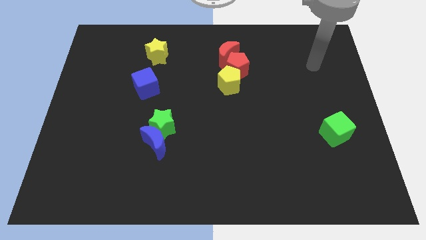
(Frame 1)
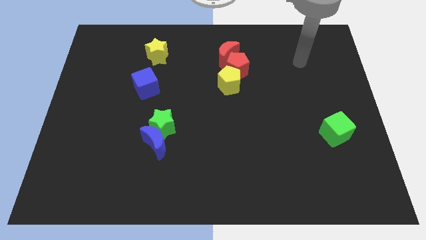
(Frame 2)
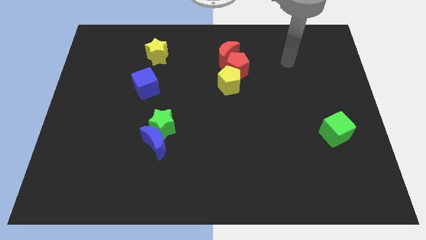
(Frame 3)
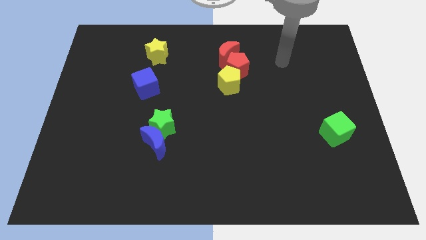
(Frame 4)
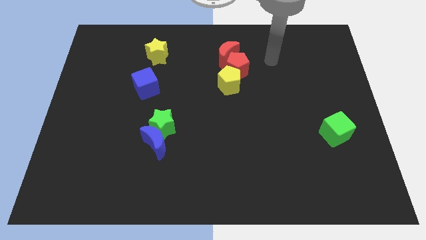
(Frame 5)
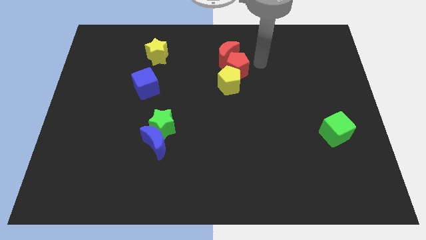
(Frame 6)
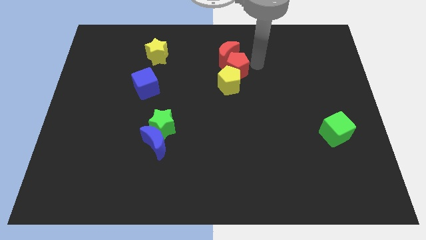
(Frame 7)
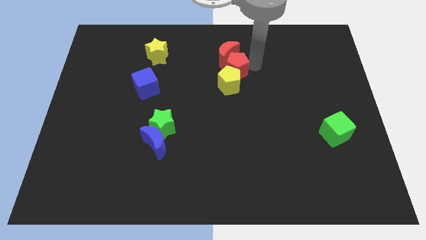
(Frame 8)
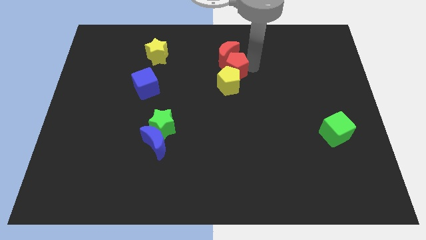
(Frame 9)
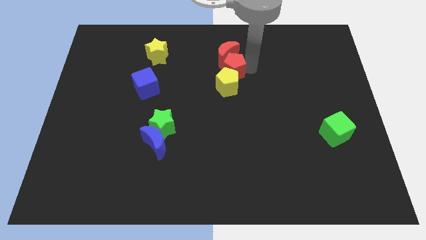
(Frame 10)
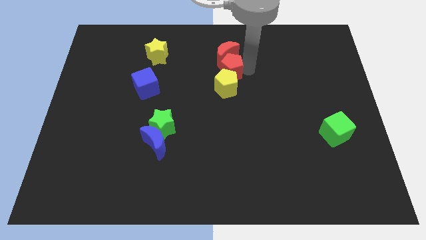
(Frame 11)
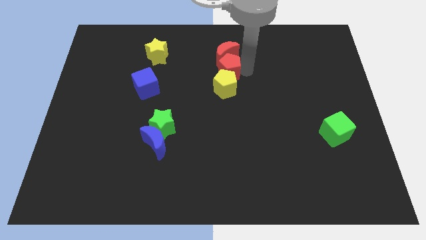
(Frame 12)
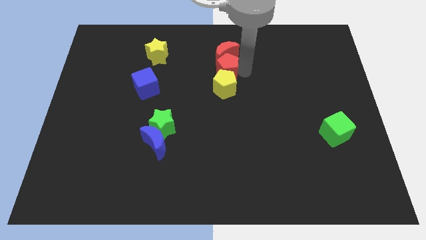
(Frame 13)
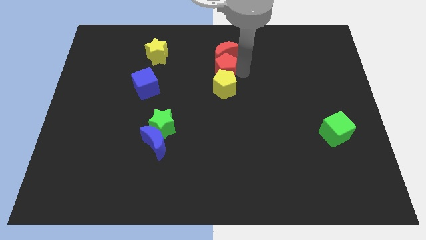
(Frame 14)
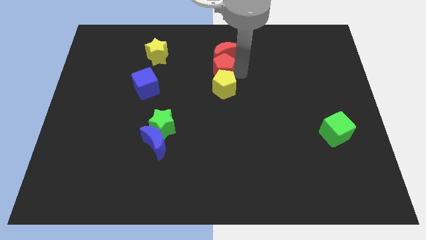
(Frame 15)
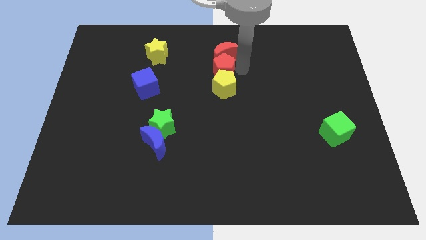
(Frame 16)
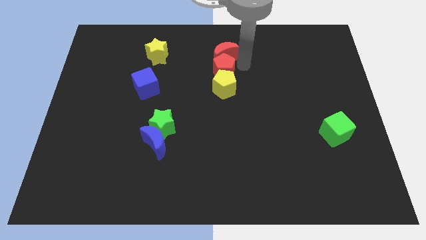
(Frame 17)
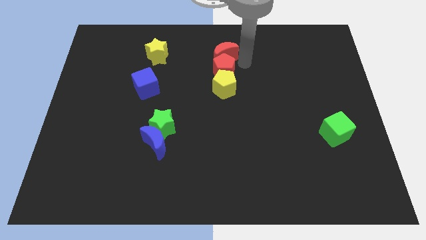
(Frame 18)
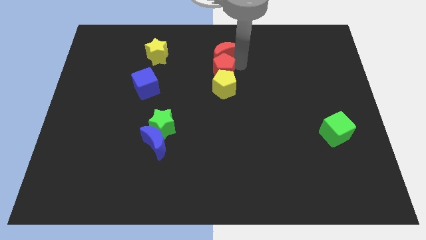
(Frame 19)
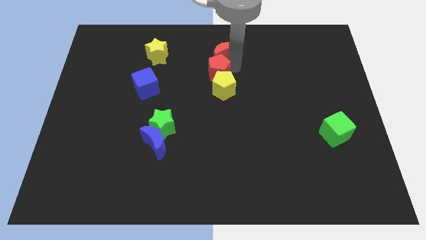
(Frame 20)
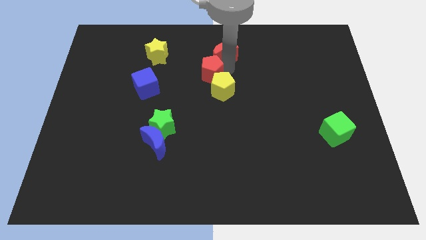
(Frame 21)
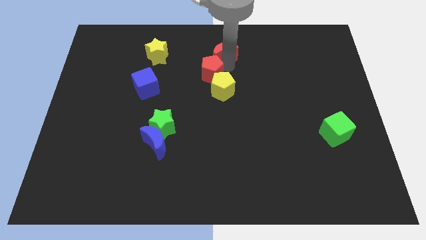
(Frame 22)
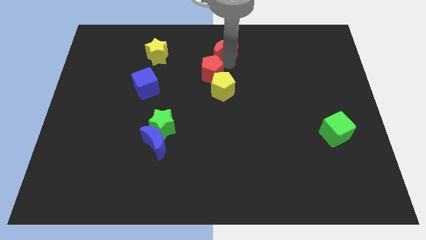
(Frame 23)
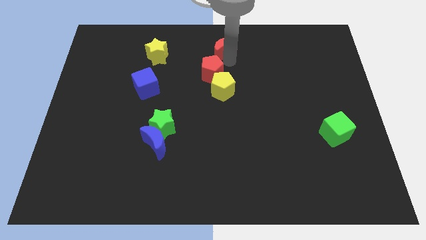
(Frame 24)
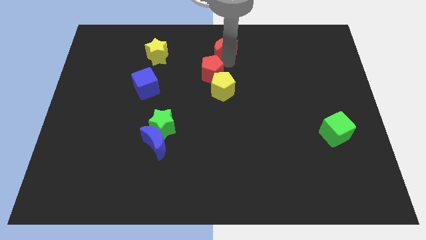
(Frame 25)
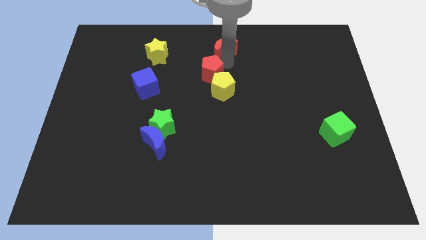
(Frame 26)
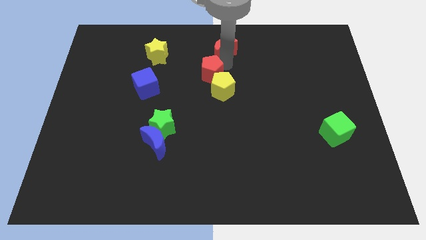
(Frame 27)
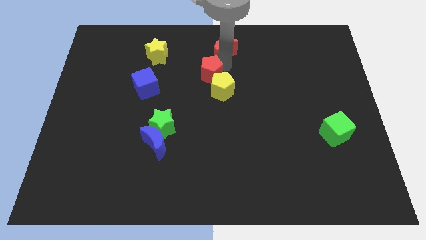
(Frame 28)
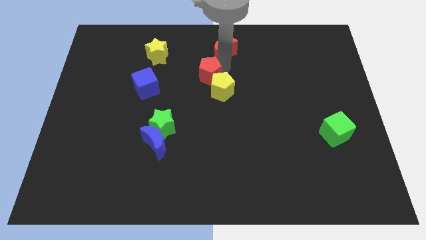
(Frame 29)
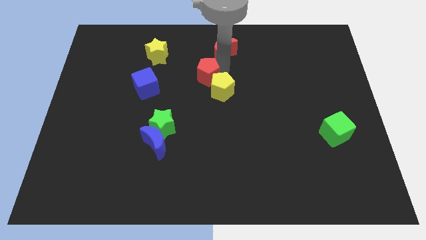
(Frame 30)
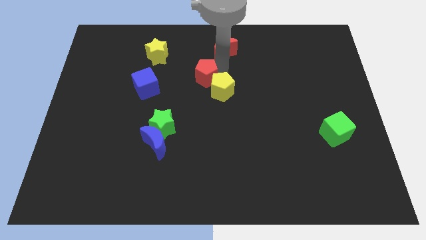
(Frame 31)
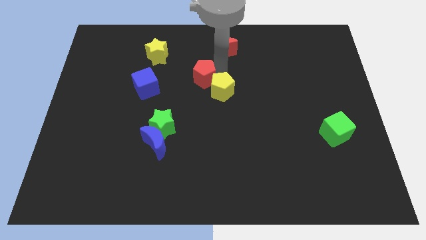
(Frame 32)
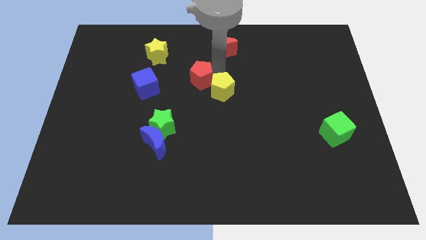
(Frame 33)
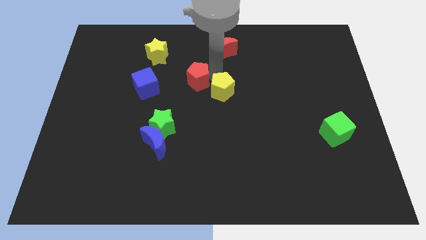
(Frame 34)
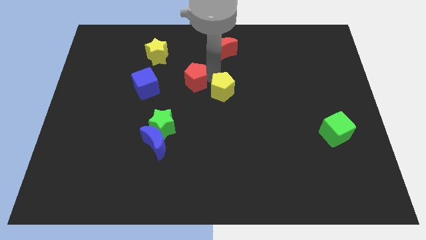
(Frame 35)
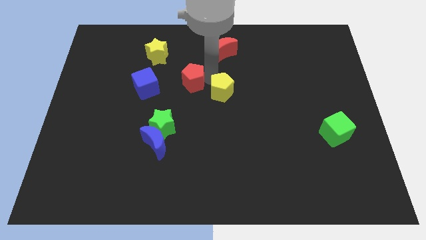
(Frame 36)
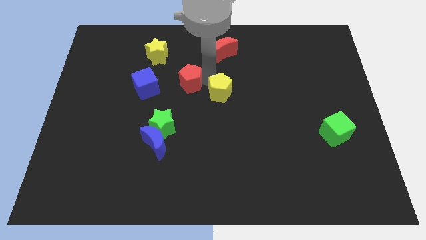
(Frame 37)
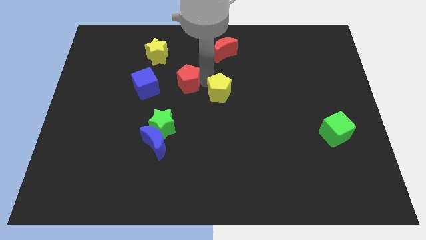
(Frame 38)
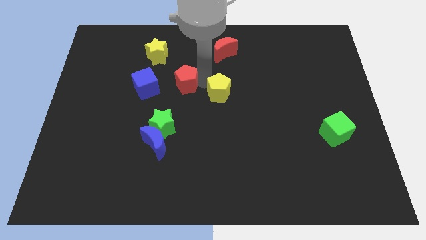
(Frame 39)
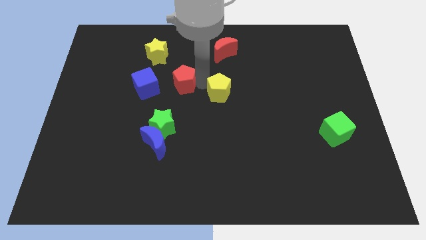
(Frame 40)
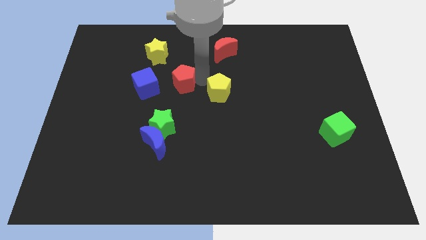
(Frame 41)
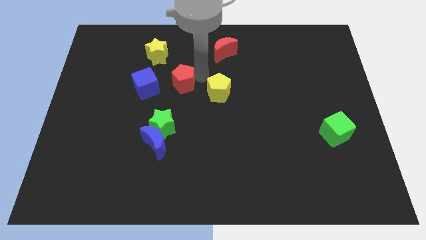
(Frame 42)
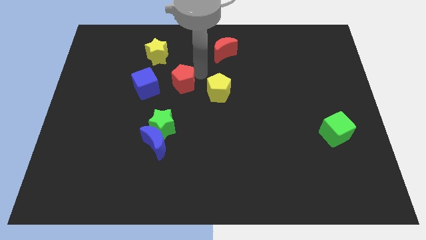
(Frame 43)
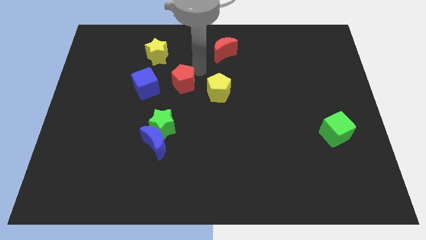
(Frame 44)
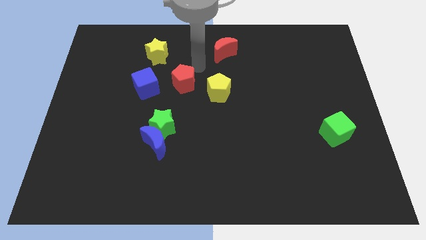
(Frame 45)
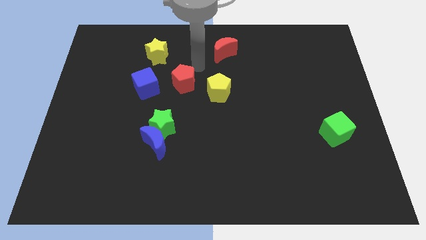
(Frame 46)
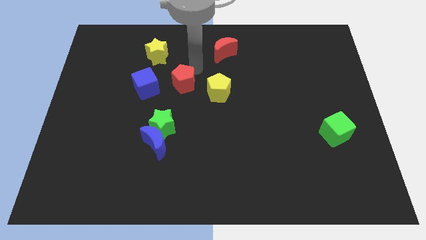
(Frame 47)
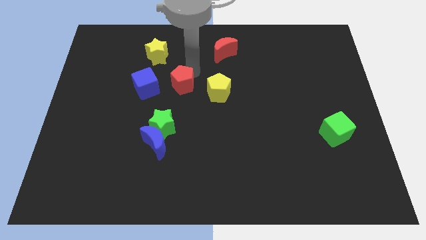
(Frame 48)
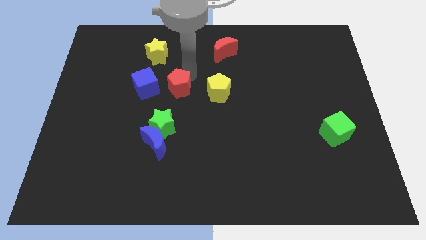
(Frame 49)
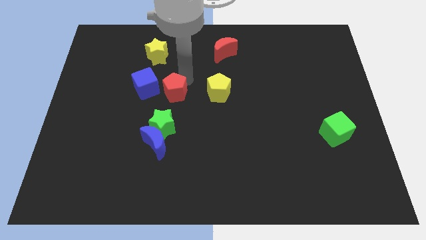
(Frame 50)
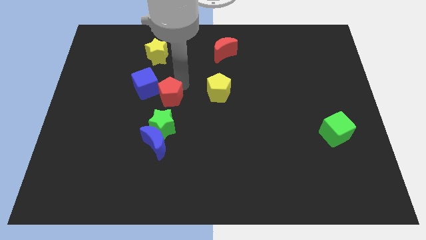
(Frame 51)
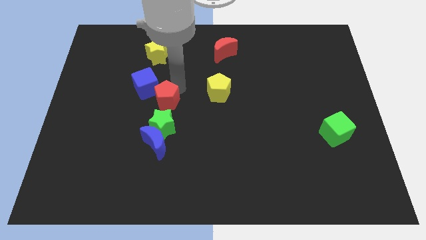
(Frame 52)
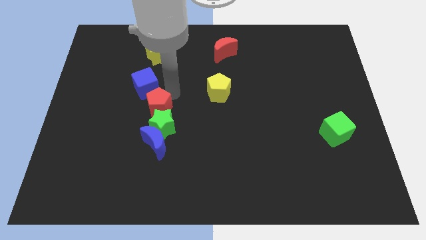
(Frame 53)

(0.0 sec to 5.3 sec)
put the red pentagon below the blue cube

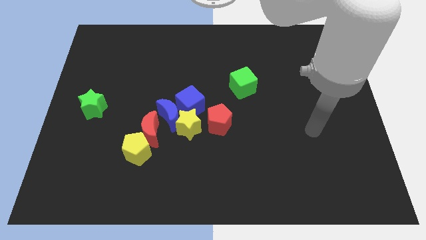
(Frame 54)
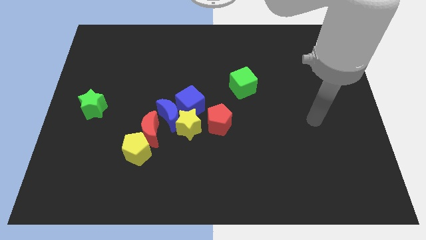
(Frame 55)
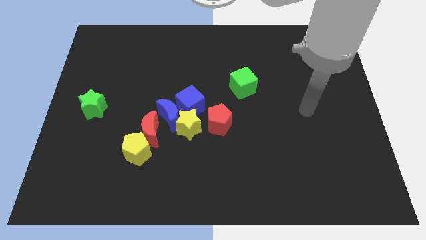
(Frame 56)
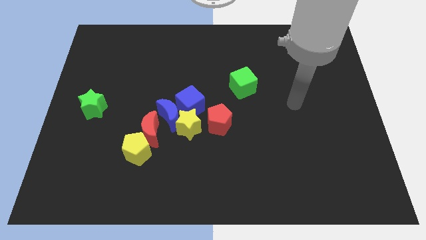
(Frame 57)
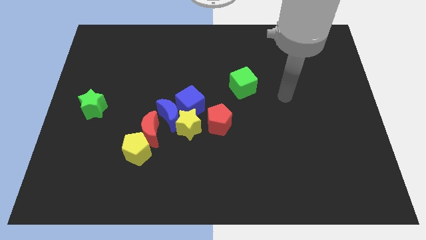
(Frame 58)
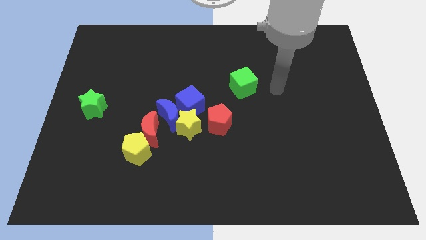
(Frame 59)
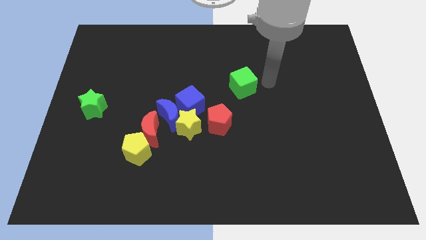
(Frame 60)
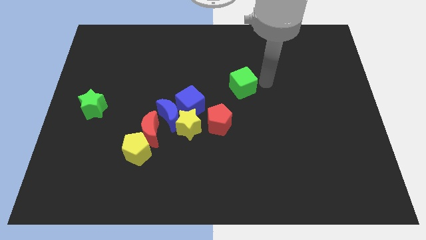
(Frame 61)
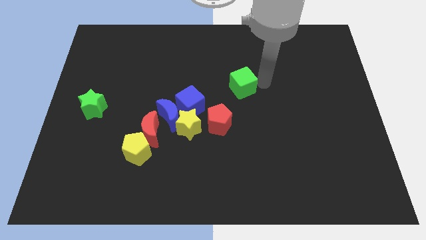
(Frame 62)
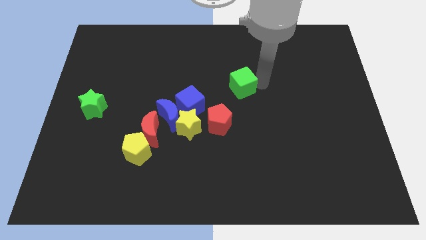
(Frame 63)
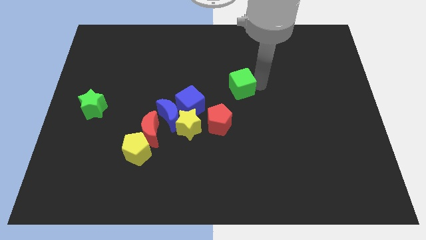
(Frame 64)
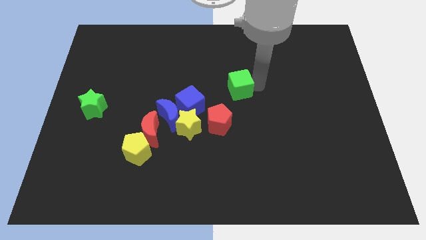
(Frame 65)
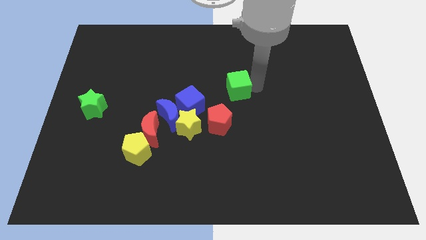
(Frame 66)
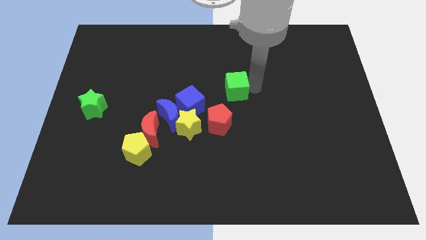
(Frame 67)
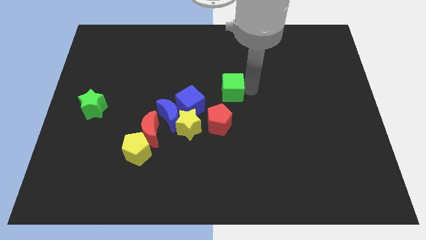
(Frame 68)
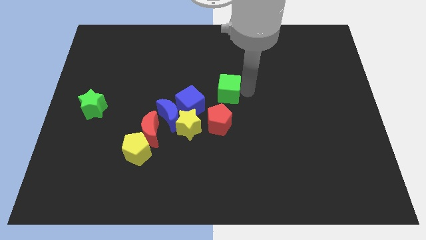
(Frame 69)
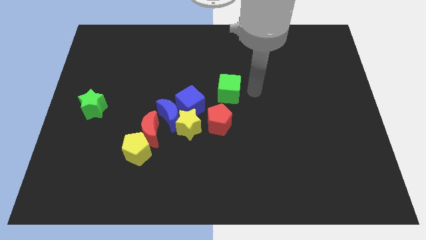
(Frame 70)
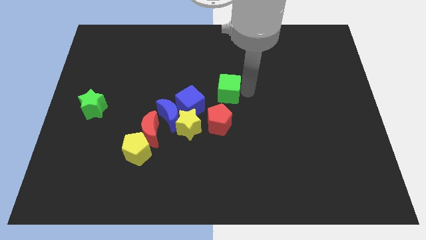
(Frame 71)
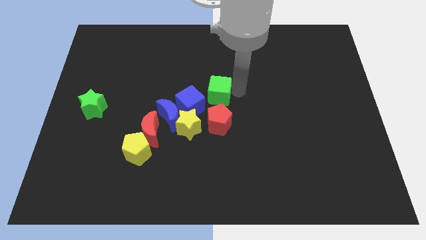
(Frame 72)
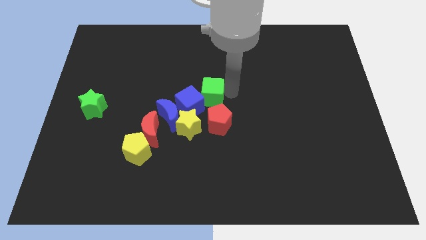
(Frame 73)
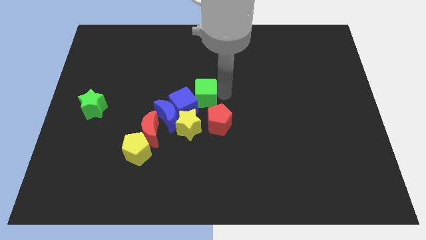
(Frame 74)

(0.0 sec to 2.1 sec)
push the green cube to the top side of the yellow star

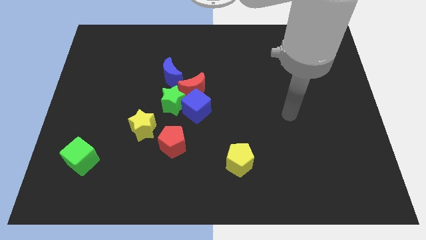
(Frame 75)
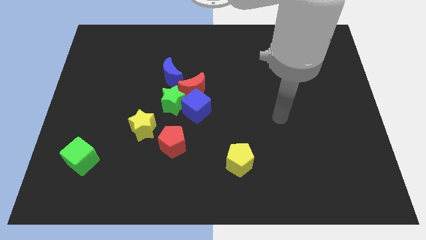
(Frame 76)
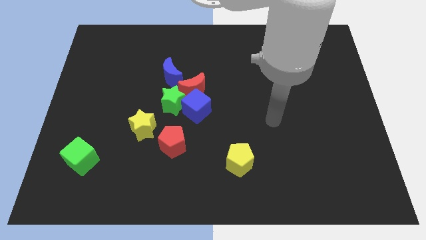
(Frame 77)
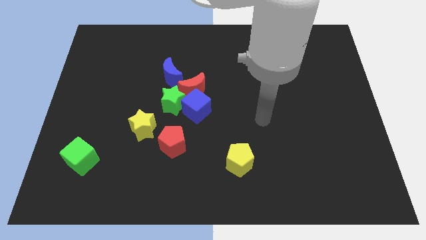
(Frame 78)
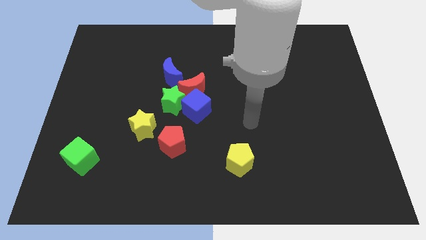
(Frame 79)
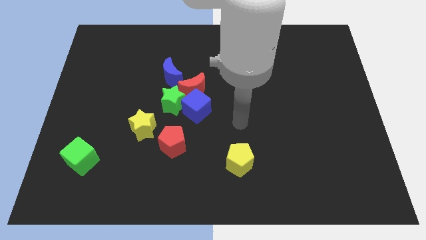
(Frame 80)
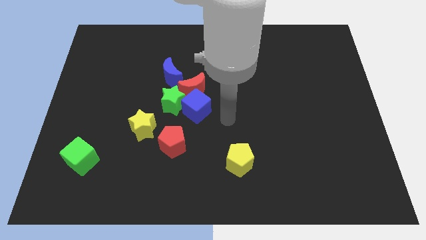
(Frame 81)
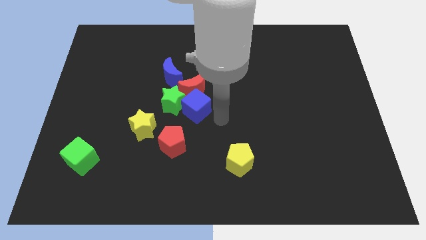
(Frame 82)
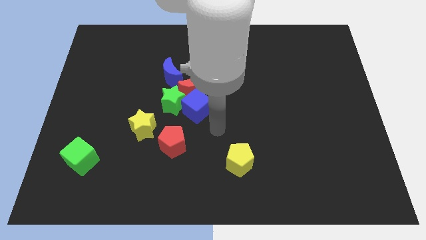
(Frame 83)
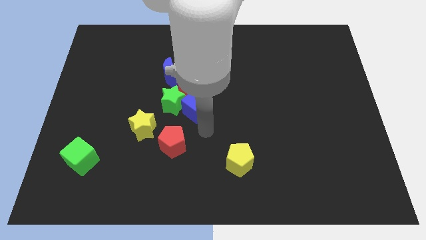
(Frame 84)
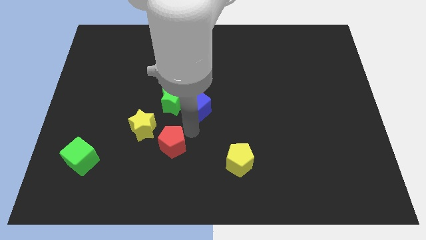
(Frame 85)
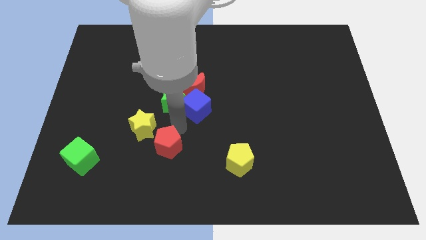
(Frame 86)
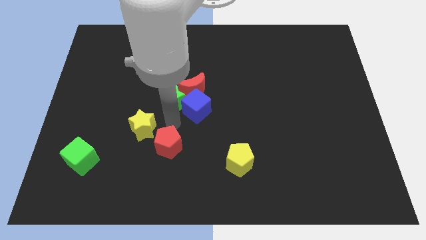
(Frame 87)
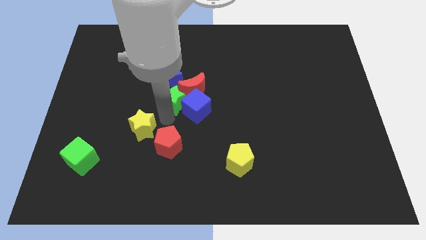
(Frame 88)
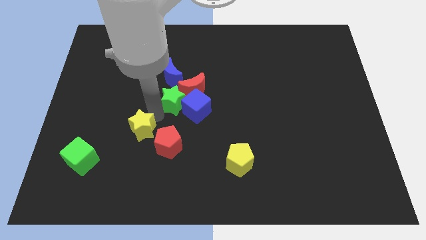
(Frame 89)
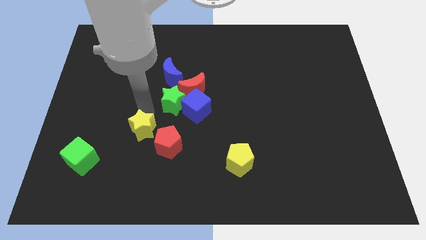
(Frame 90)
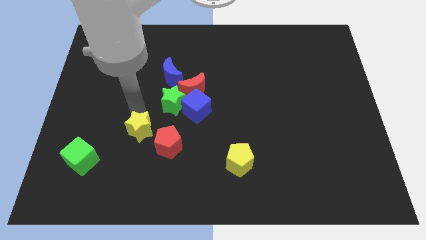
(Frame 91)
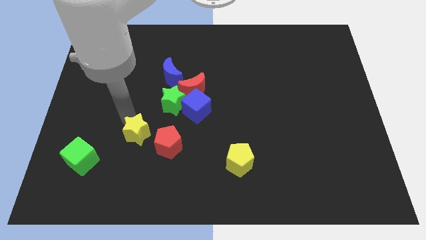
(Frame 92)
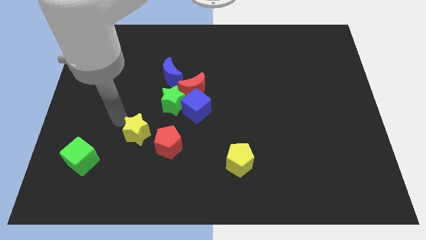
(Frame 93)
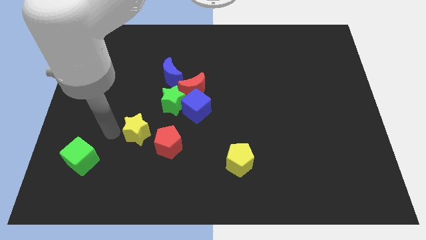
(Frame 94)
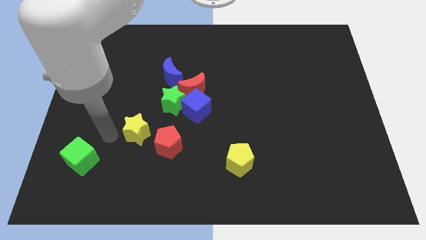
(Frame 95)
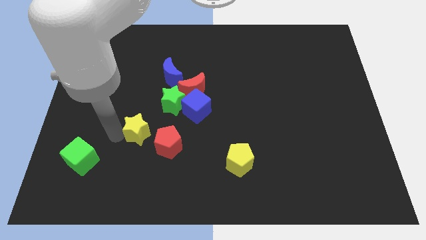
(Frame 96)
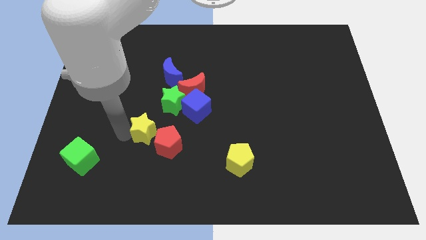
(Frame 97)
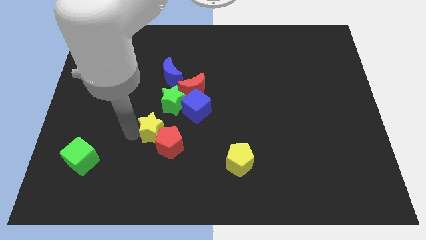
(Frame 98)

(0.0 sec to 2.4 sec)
push the yellow star to the bottom left of the blue cube
